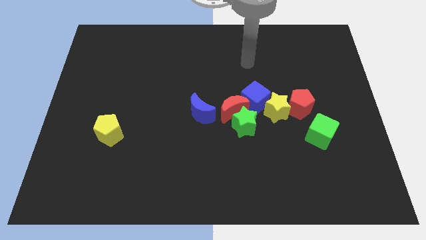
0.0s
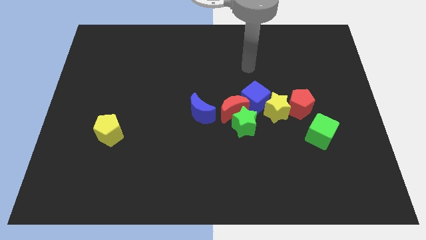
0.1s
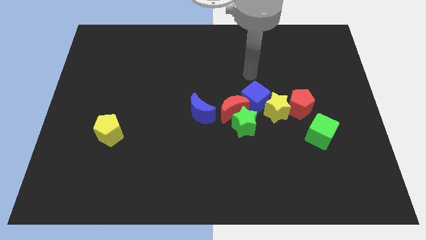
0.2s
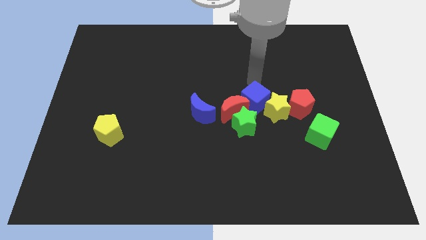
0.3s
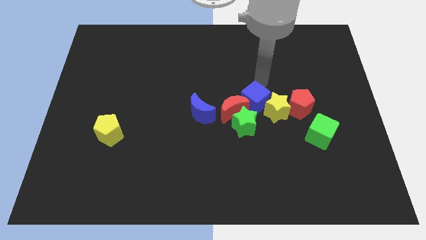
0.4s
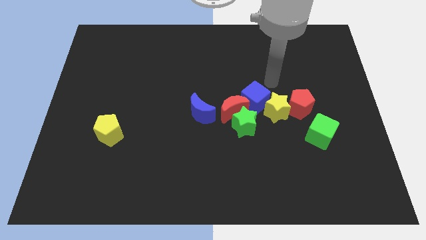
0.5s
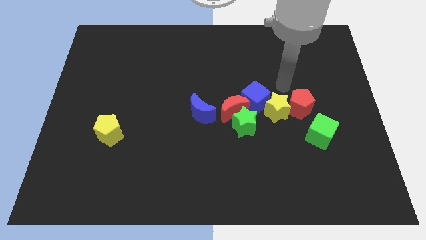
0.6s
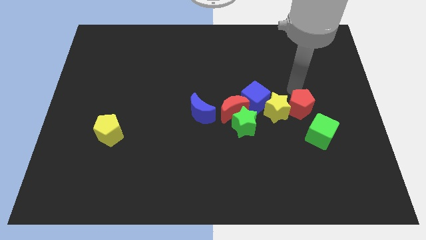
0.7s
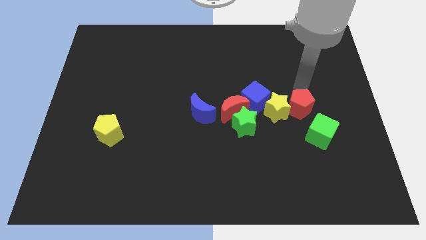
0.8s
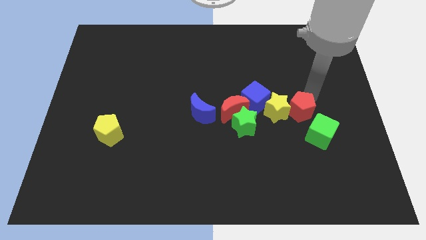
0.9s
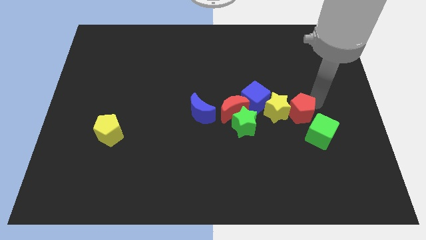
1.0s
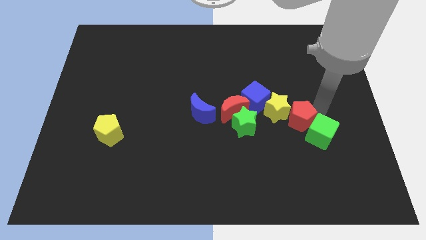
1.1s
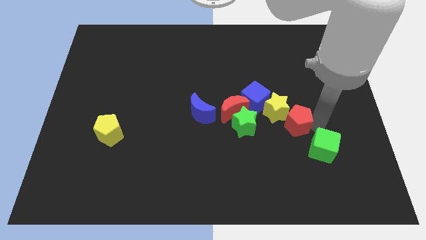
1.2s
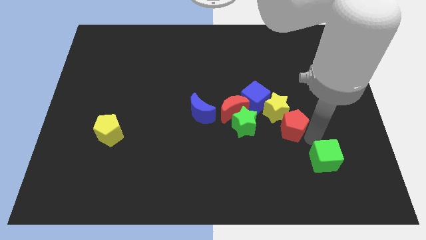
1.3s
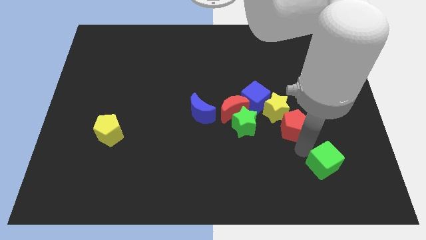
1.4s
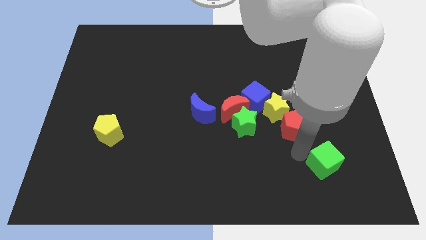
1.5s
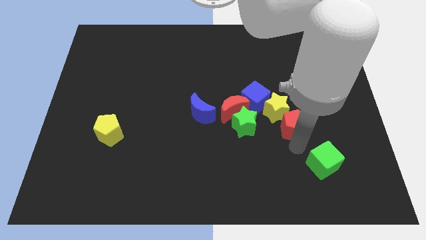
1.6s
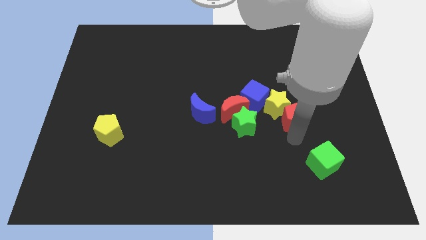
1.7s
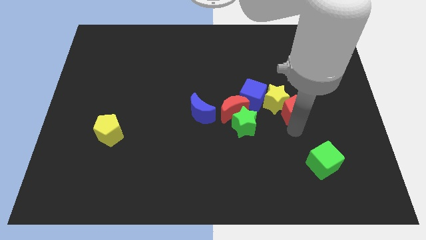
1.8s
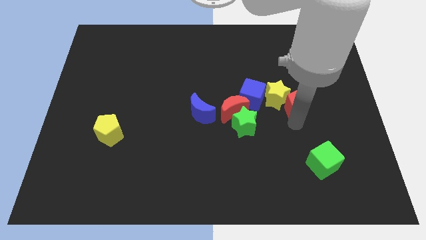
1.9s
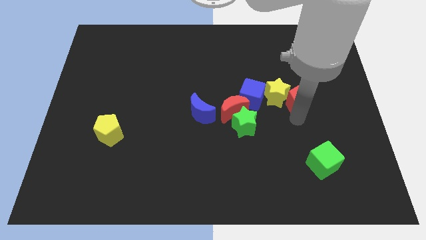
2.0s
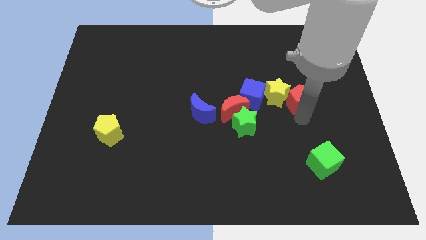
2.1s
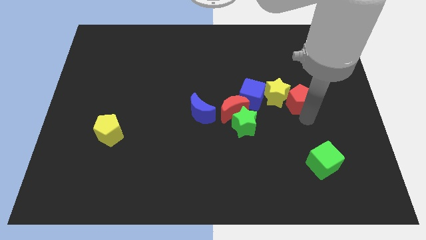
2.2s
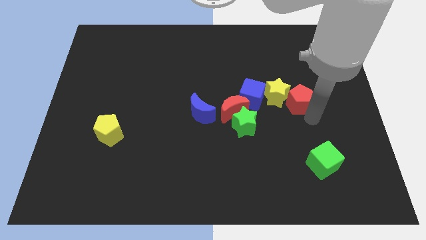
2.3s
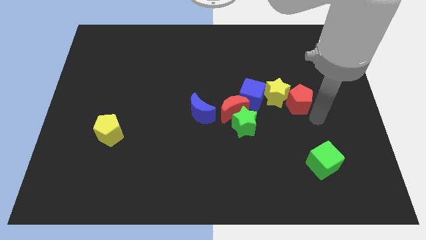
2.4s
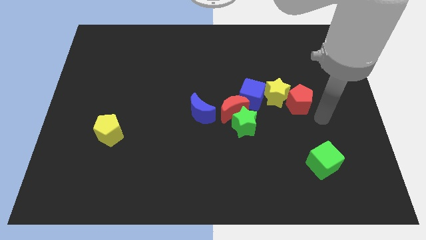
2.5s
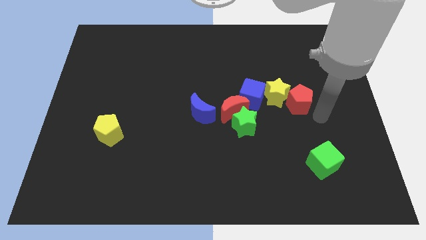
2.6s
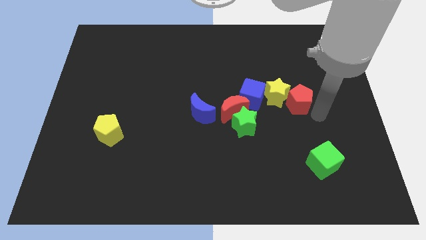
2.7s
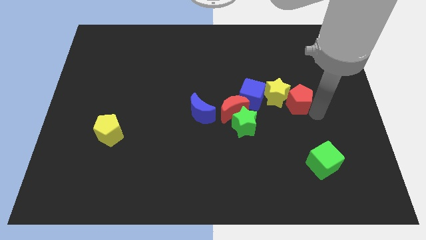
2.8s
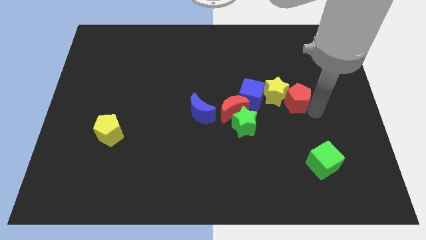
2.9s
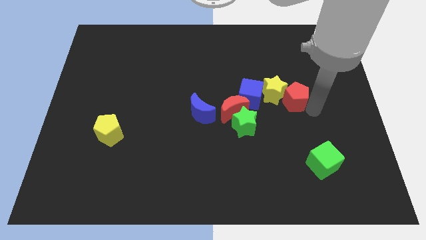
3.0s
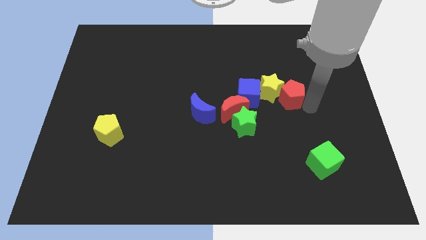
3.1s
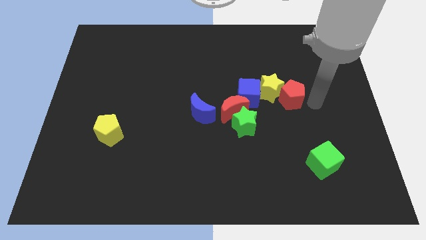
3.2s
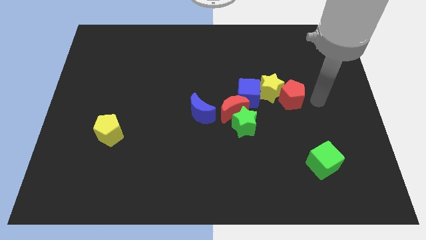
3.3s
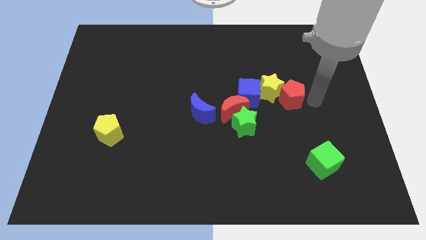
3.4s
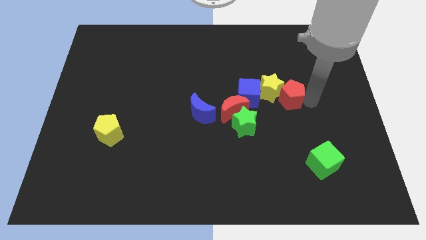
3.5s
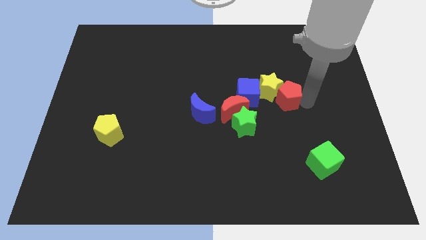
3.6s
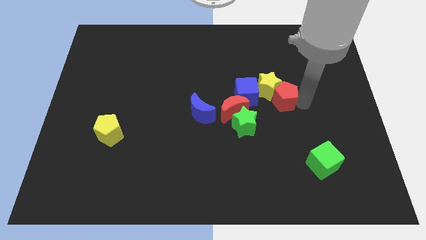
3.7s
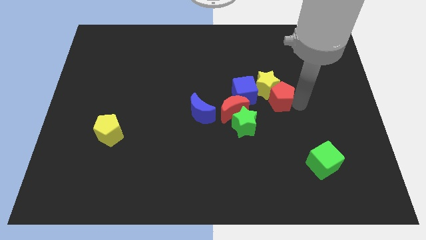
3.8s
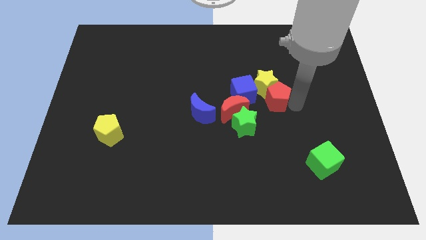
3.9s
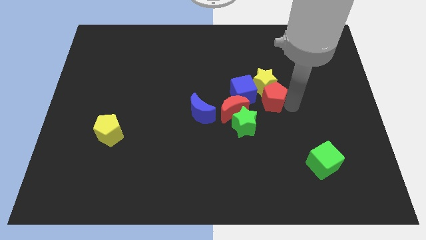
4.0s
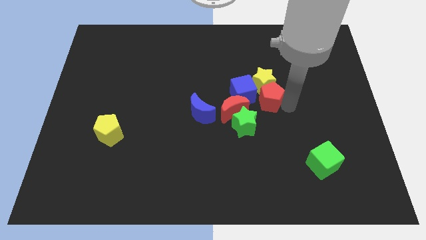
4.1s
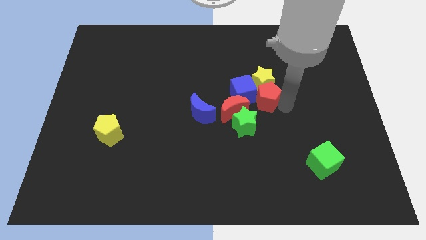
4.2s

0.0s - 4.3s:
push the red pentagon towards the blue cube

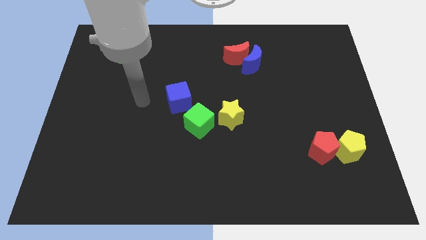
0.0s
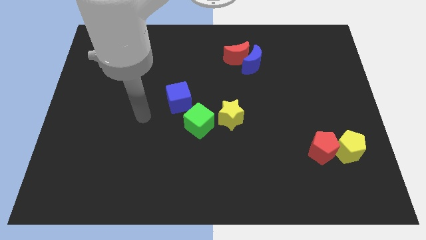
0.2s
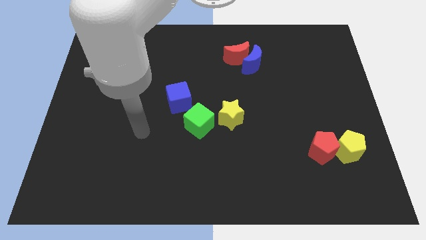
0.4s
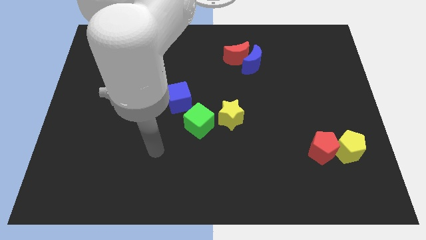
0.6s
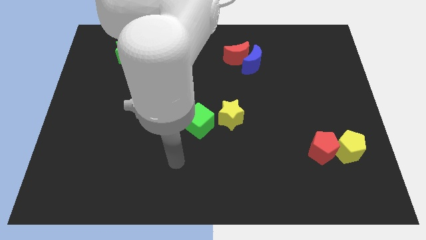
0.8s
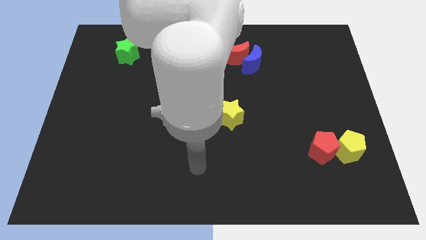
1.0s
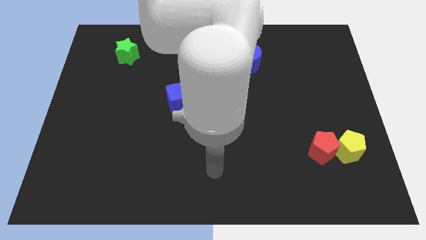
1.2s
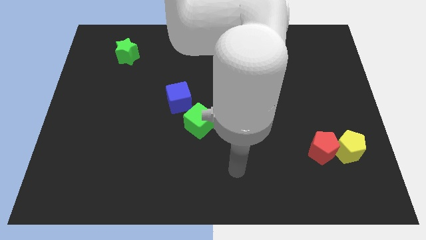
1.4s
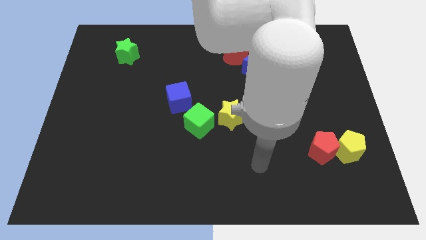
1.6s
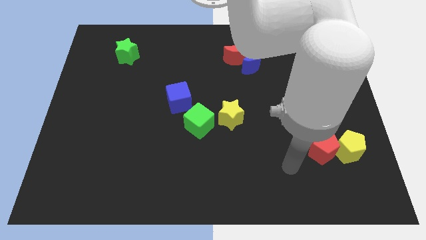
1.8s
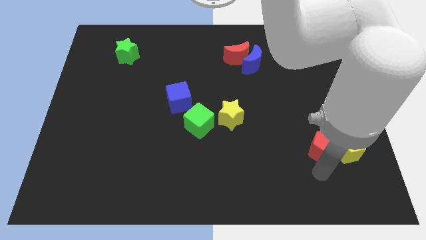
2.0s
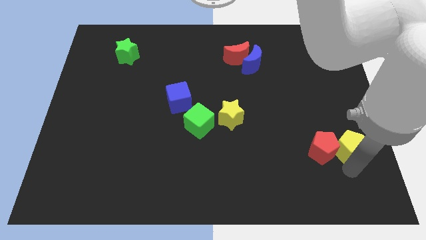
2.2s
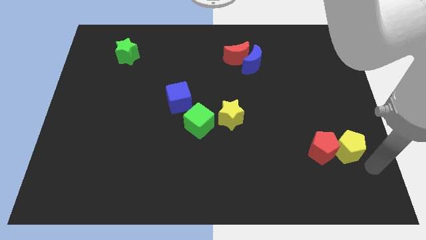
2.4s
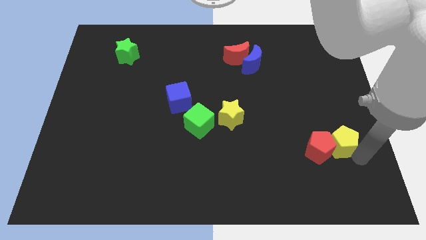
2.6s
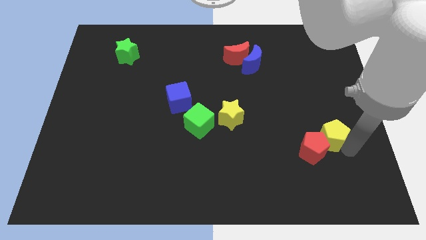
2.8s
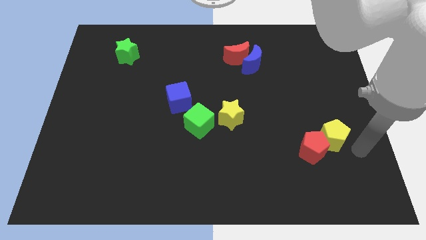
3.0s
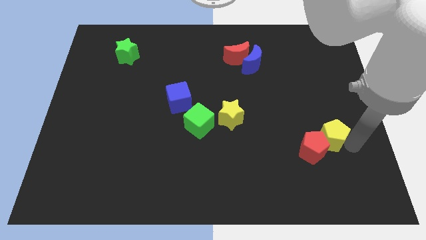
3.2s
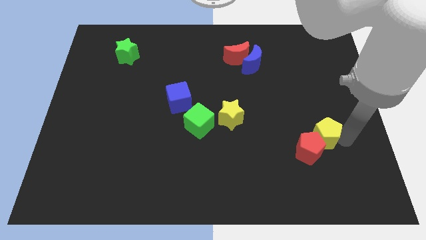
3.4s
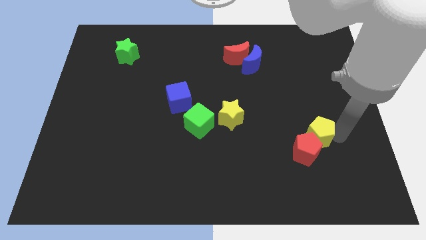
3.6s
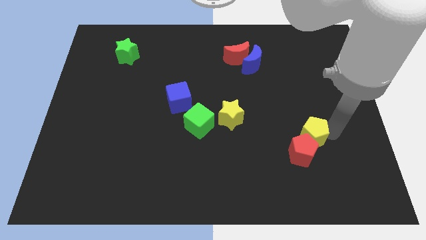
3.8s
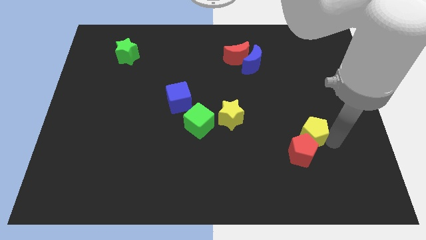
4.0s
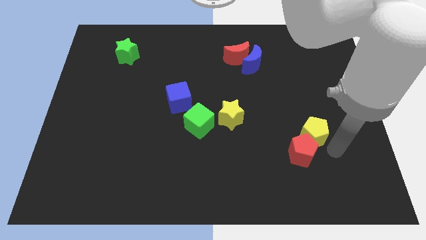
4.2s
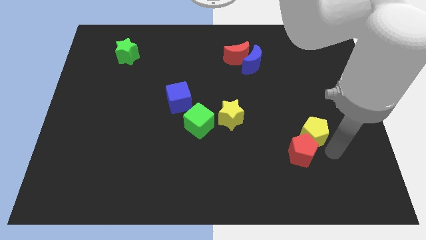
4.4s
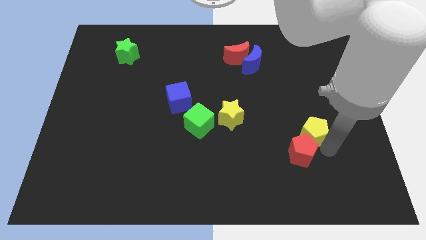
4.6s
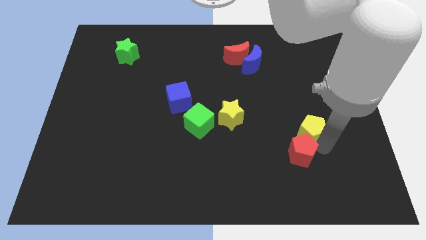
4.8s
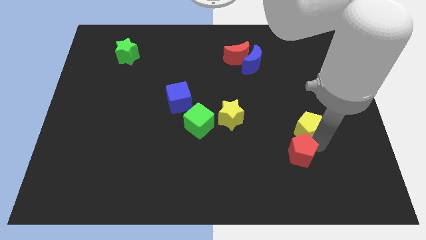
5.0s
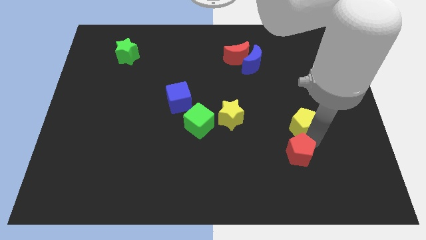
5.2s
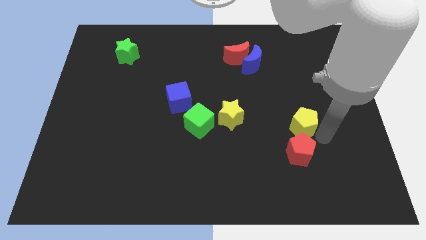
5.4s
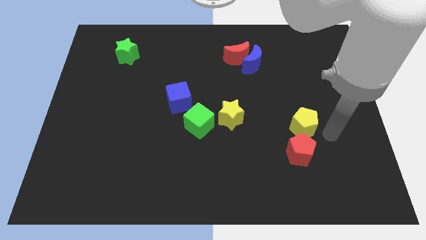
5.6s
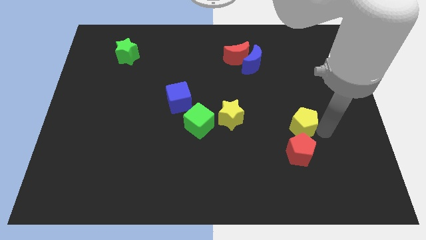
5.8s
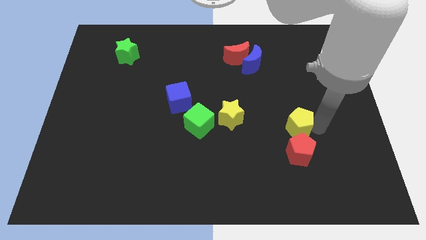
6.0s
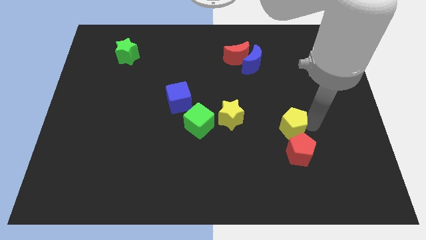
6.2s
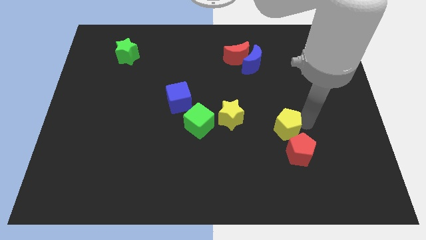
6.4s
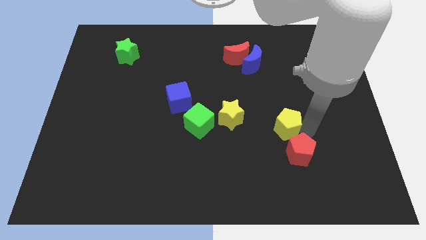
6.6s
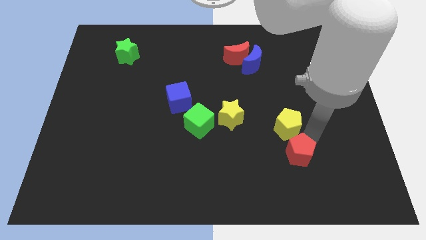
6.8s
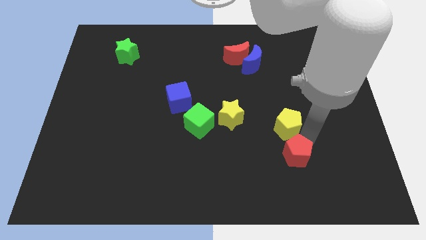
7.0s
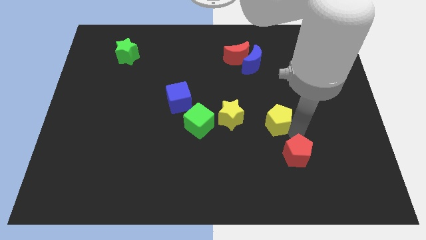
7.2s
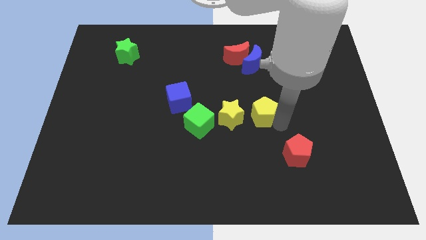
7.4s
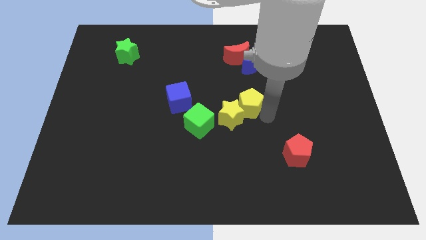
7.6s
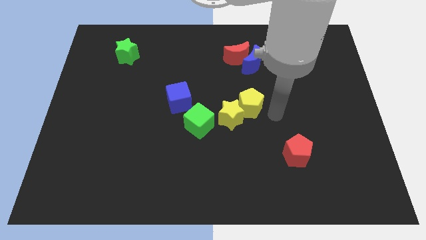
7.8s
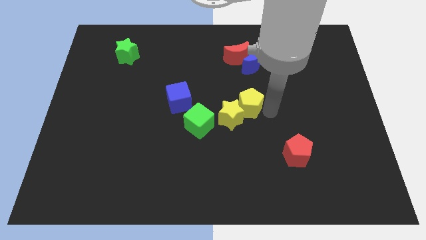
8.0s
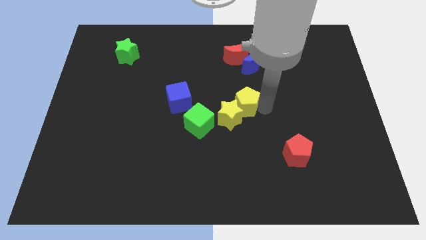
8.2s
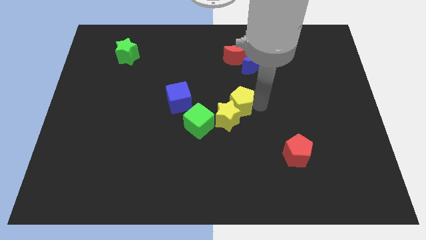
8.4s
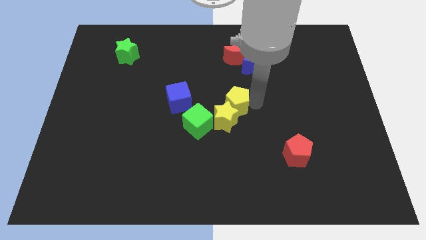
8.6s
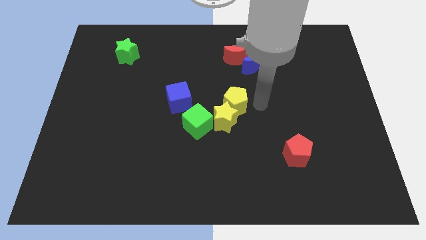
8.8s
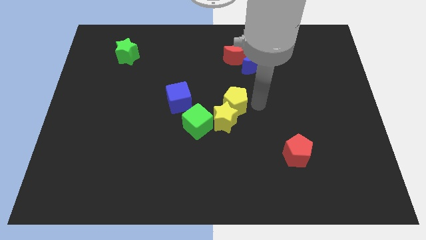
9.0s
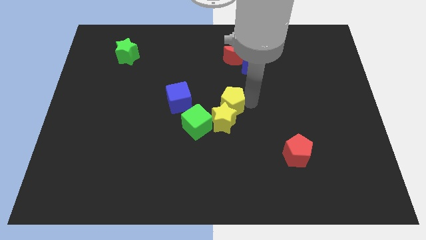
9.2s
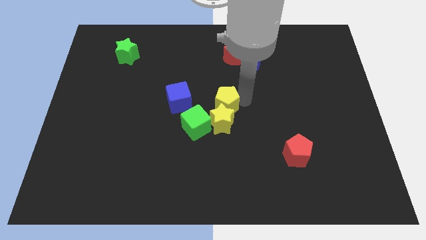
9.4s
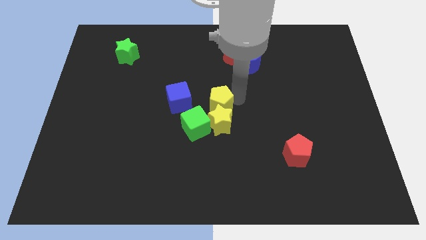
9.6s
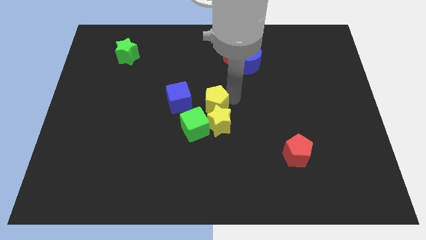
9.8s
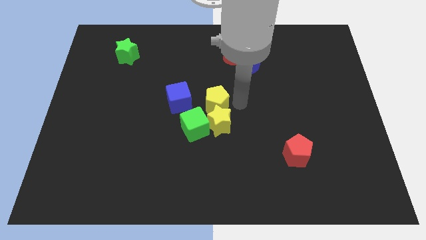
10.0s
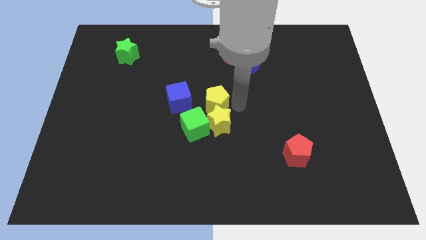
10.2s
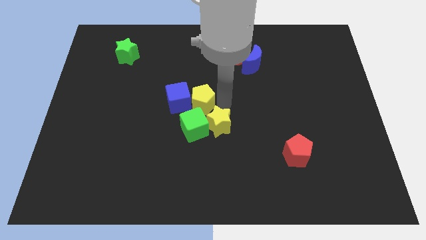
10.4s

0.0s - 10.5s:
push the yellow pentagon next to the blue cube
